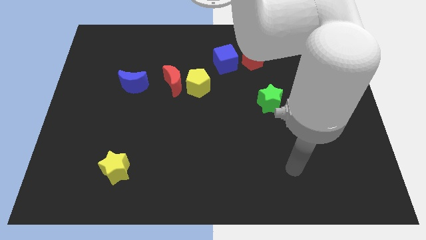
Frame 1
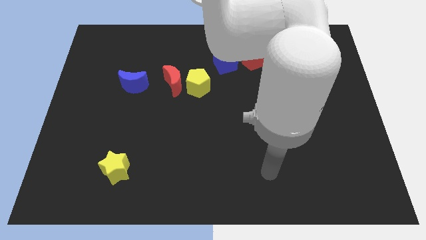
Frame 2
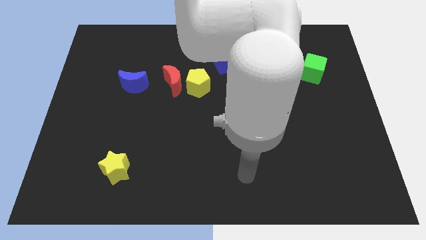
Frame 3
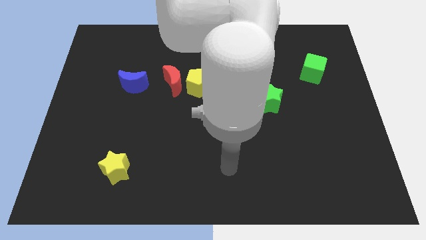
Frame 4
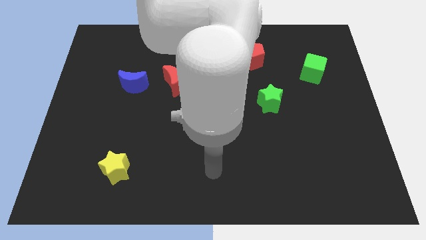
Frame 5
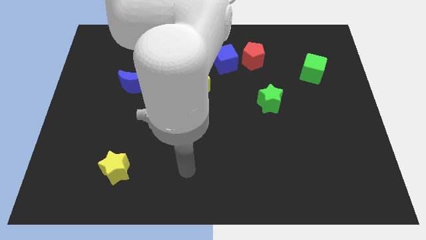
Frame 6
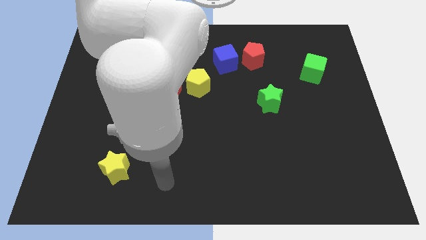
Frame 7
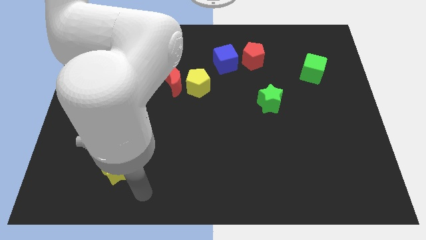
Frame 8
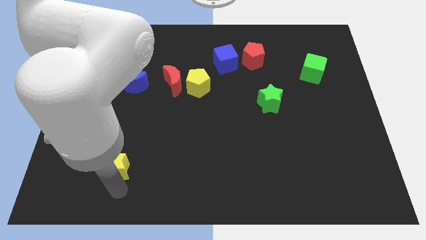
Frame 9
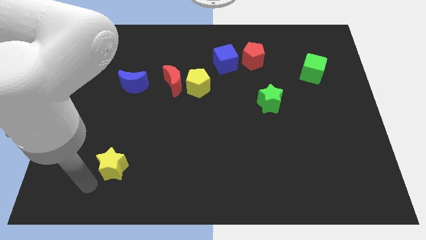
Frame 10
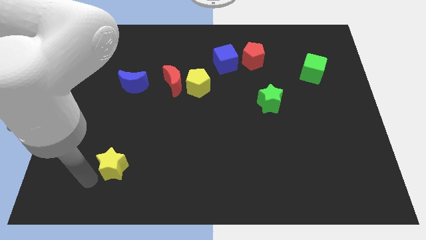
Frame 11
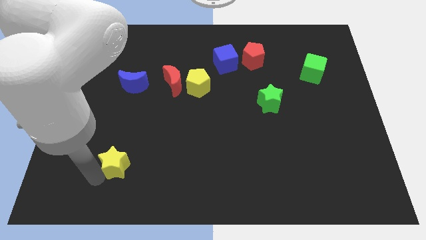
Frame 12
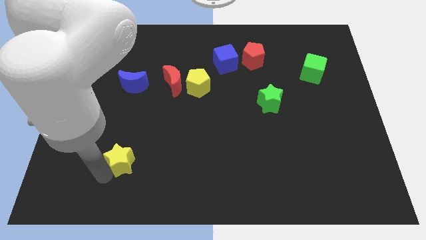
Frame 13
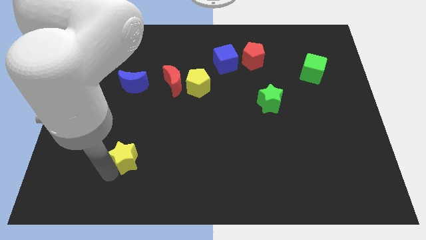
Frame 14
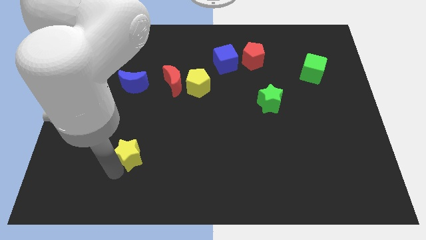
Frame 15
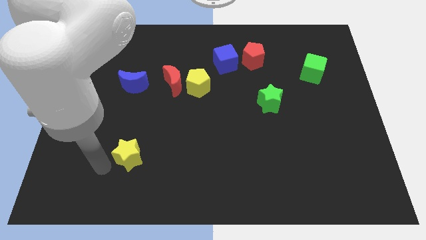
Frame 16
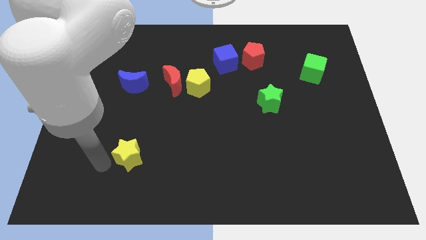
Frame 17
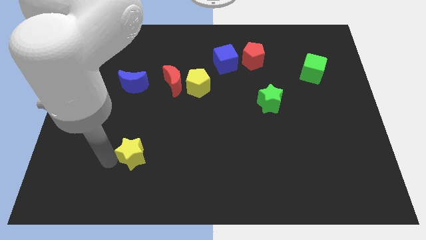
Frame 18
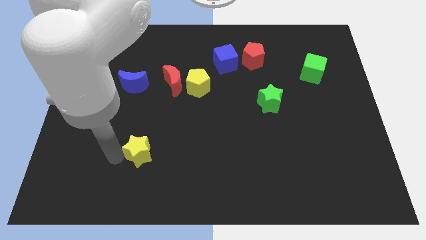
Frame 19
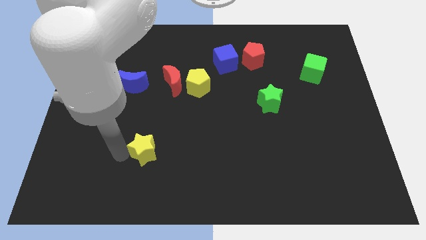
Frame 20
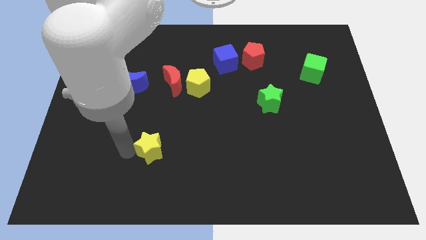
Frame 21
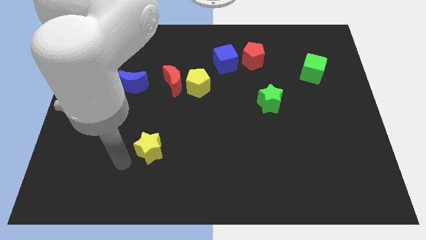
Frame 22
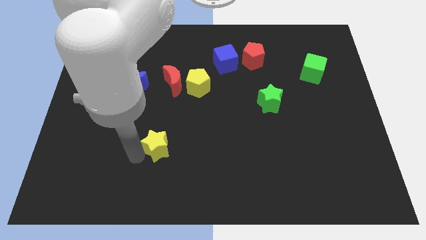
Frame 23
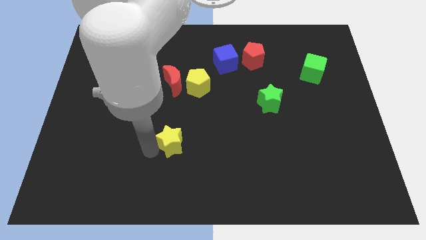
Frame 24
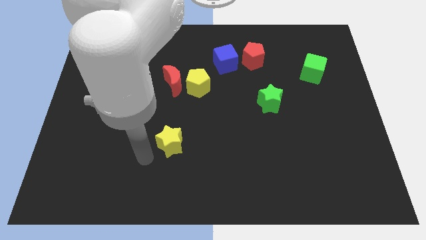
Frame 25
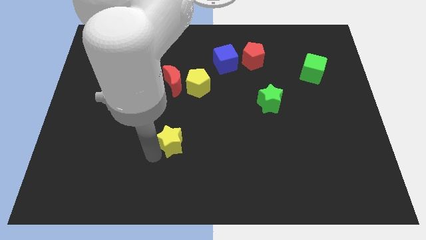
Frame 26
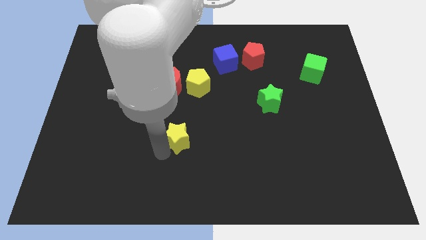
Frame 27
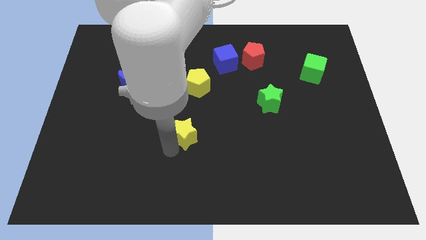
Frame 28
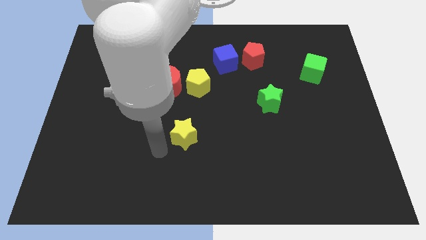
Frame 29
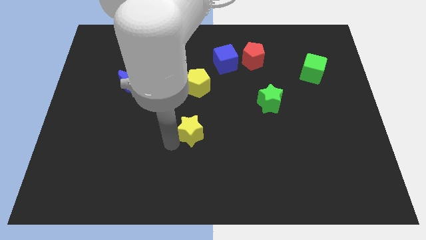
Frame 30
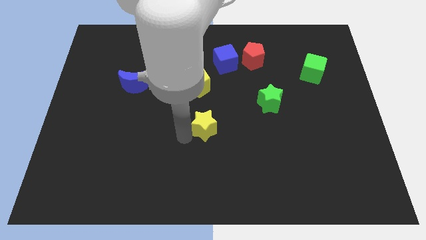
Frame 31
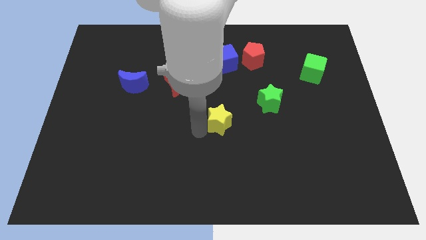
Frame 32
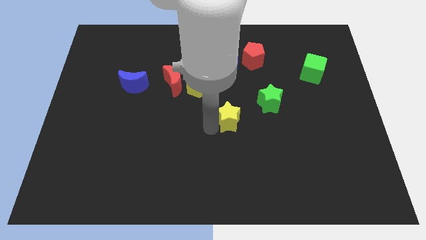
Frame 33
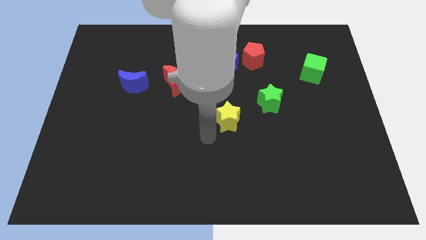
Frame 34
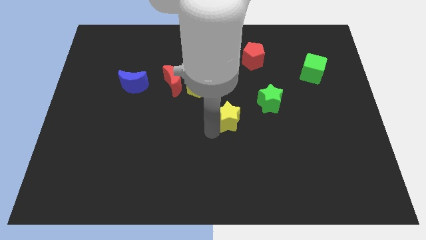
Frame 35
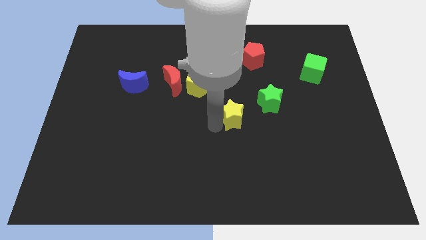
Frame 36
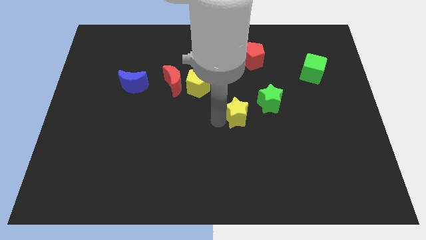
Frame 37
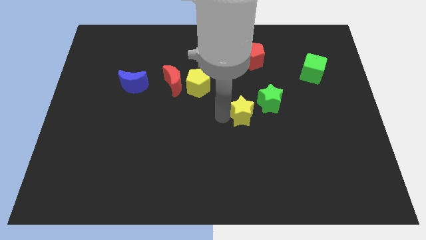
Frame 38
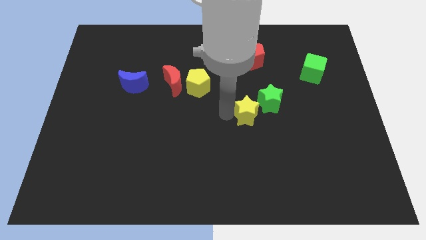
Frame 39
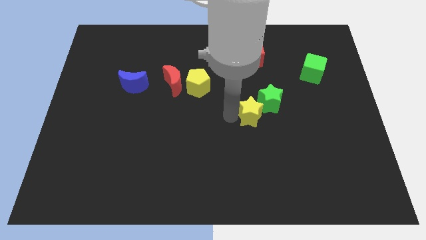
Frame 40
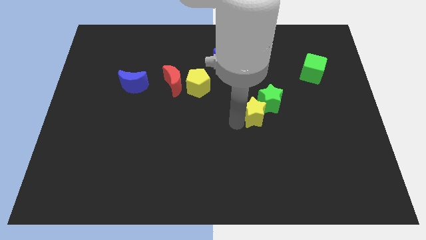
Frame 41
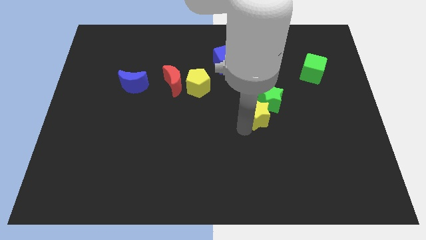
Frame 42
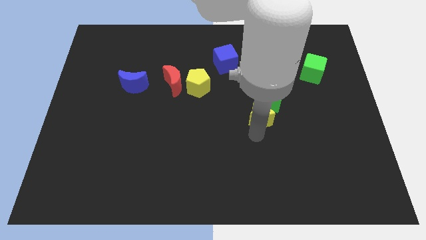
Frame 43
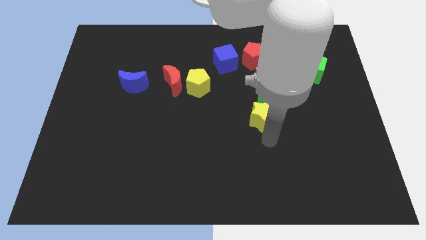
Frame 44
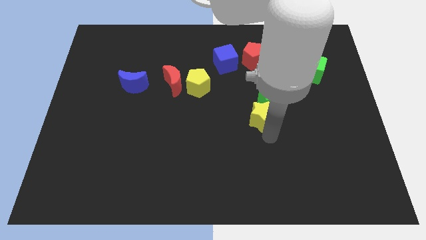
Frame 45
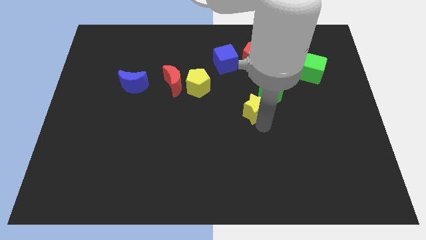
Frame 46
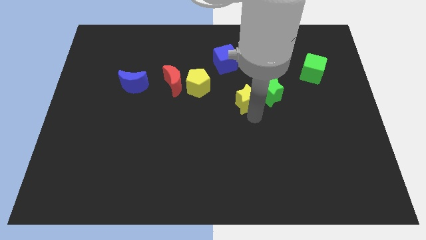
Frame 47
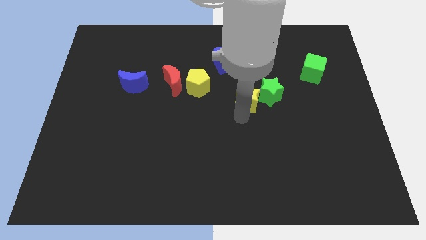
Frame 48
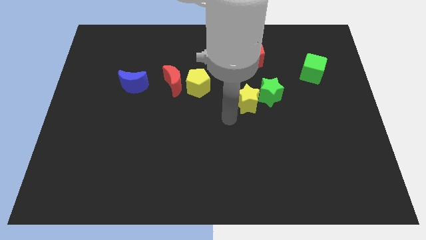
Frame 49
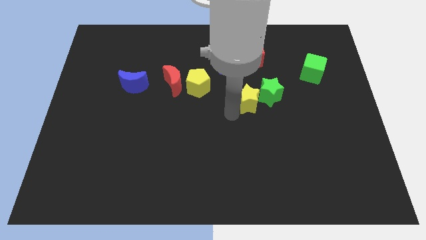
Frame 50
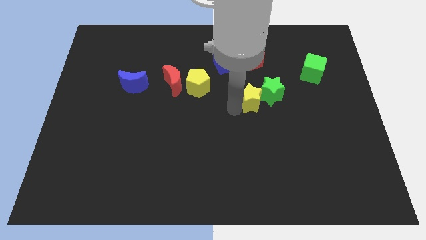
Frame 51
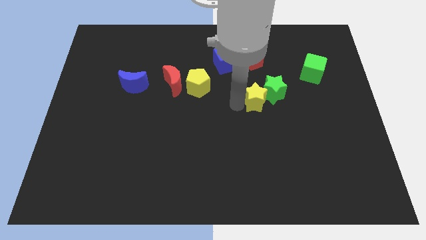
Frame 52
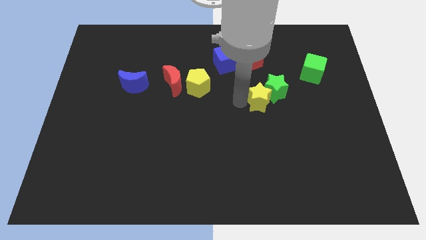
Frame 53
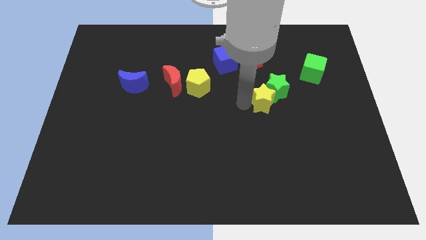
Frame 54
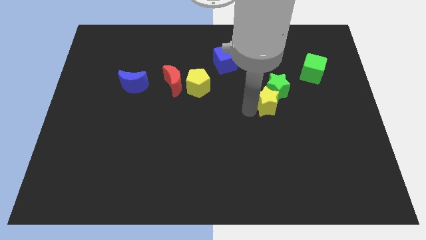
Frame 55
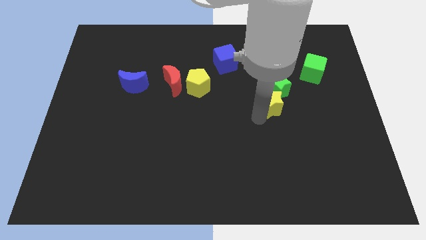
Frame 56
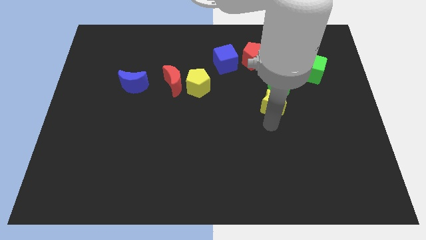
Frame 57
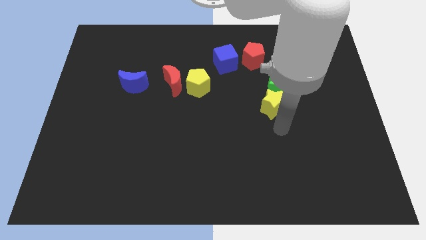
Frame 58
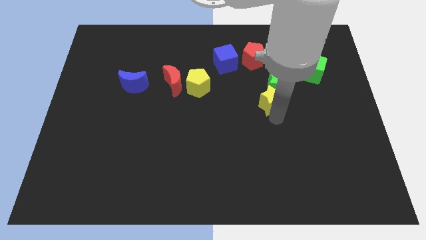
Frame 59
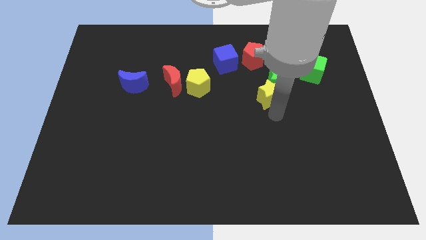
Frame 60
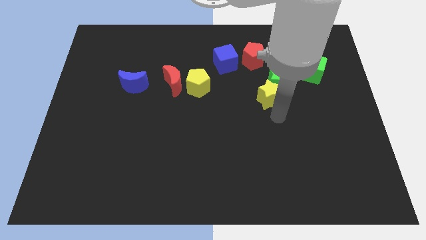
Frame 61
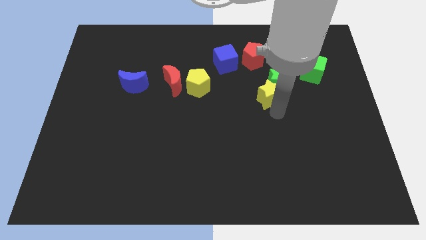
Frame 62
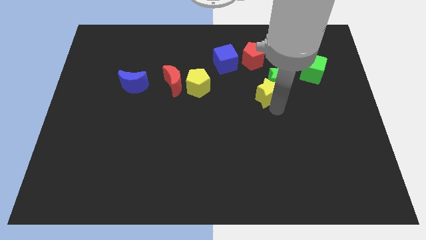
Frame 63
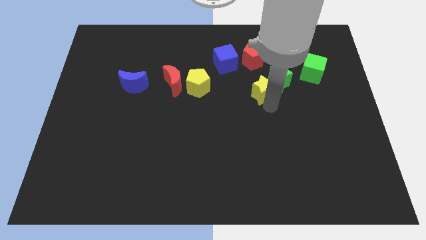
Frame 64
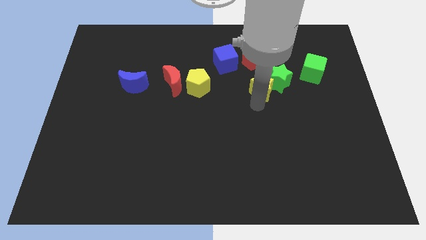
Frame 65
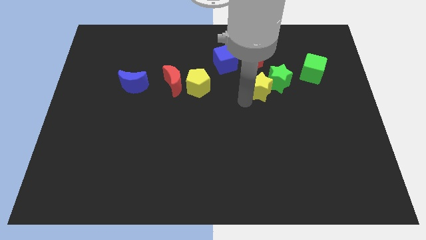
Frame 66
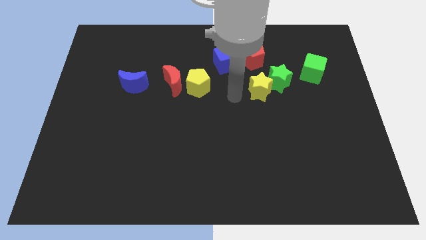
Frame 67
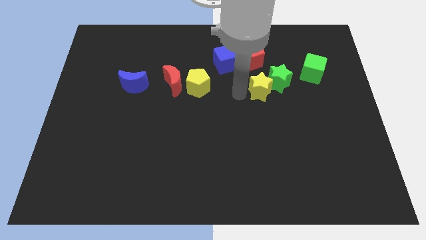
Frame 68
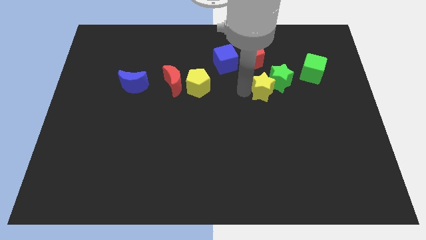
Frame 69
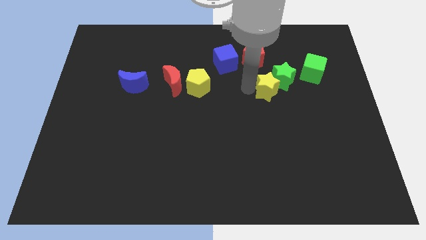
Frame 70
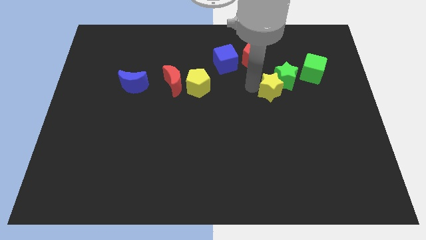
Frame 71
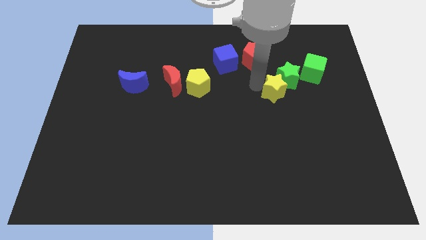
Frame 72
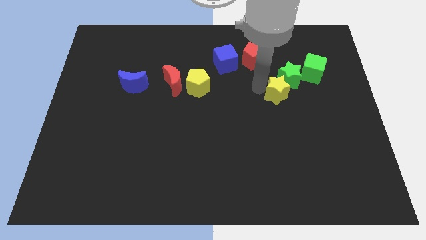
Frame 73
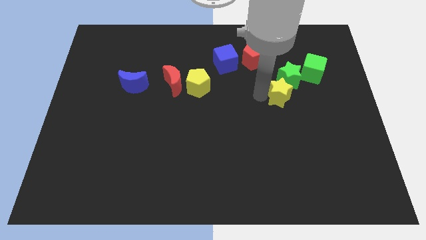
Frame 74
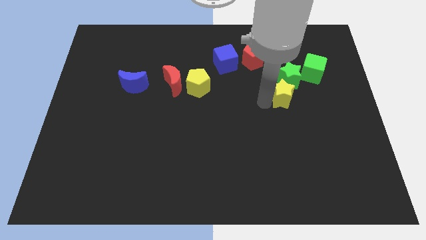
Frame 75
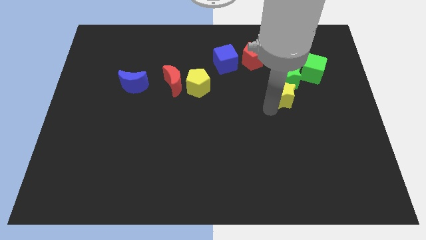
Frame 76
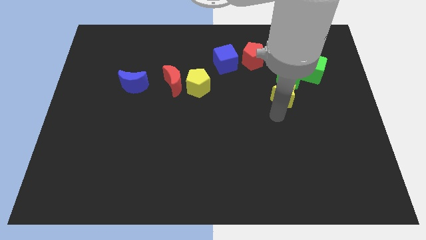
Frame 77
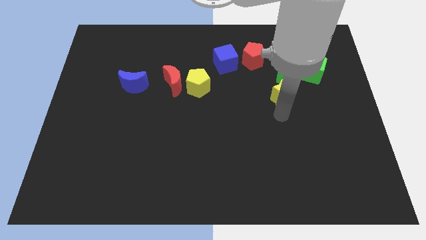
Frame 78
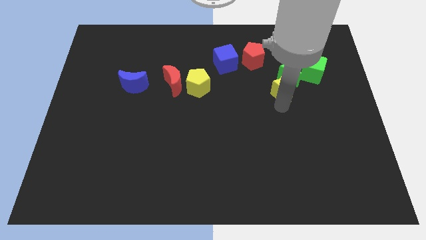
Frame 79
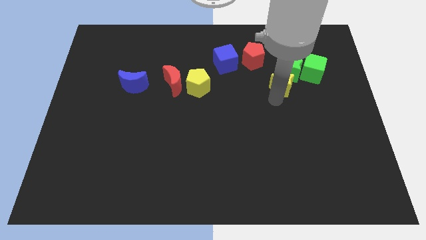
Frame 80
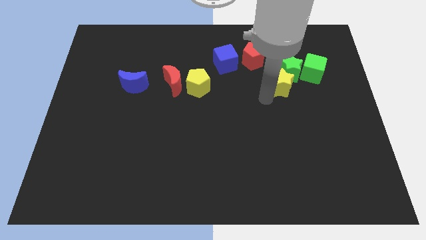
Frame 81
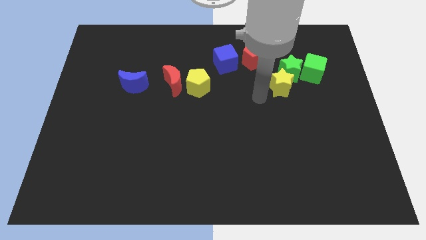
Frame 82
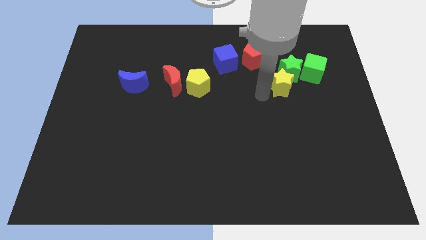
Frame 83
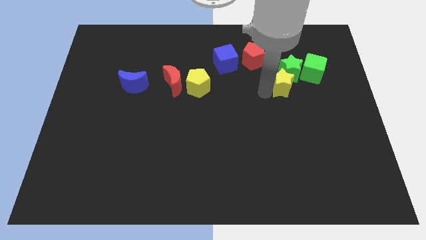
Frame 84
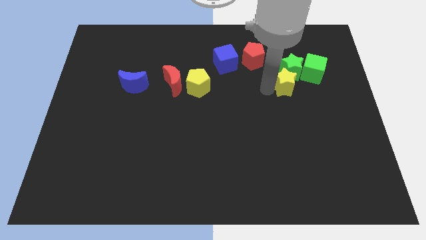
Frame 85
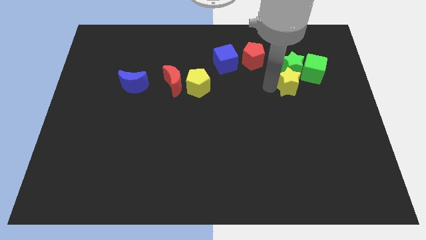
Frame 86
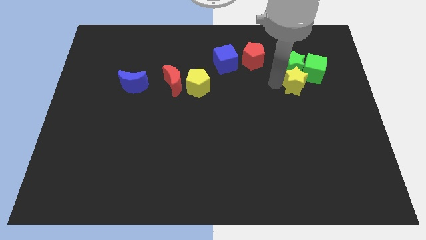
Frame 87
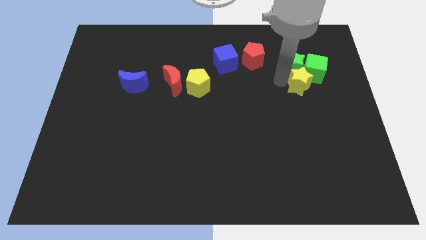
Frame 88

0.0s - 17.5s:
slide the yellow star to the green cube
